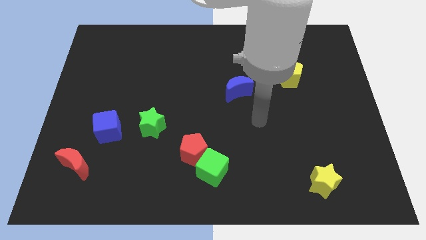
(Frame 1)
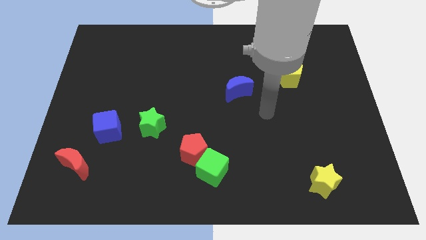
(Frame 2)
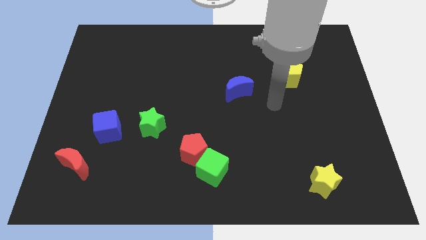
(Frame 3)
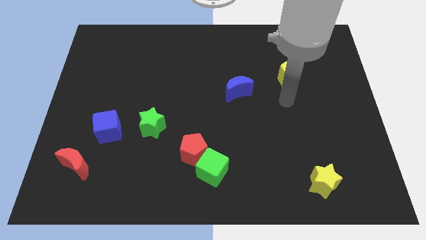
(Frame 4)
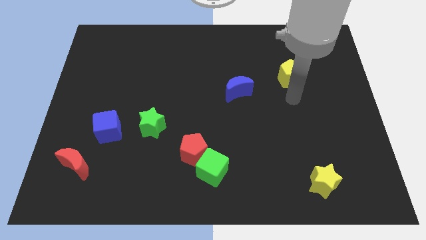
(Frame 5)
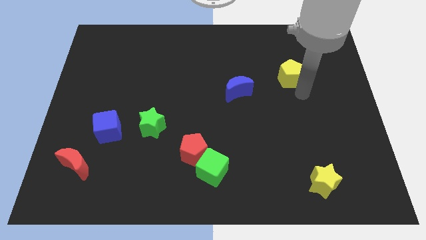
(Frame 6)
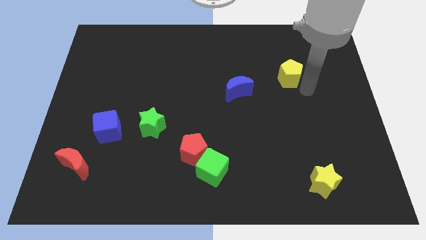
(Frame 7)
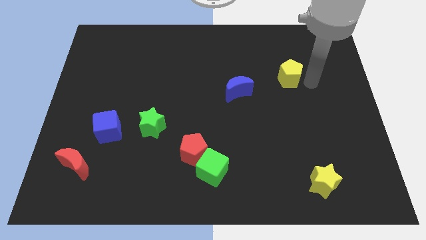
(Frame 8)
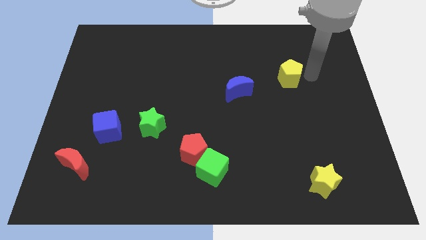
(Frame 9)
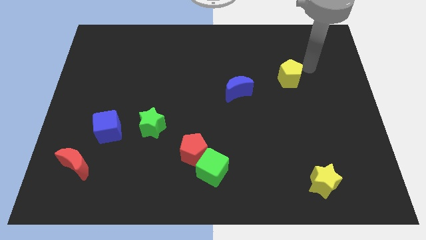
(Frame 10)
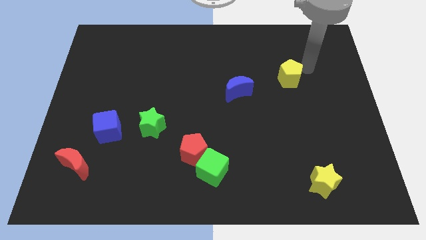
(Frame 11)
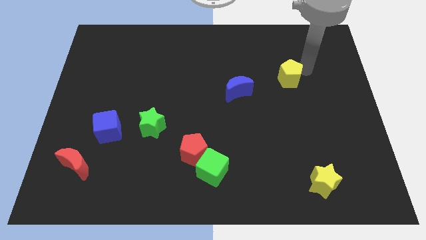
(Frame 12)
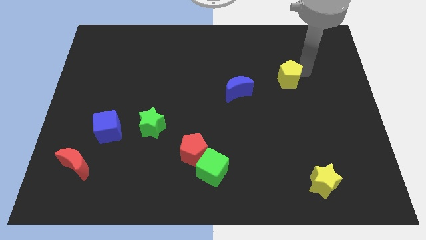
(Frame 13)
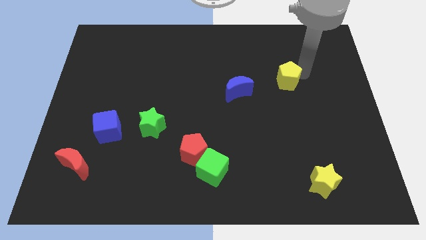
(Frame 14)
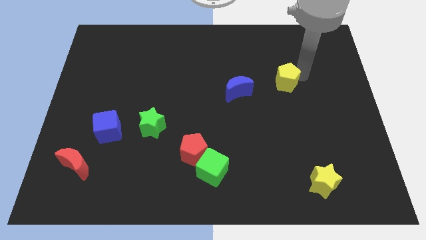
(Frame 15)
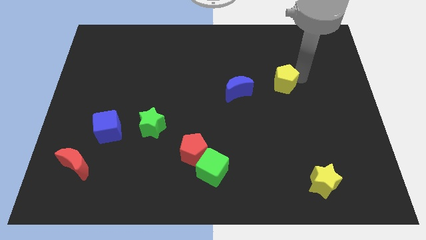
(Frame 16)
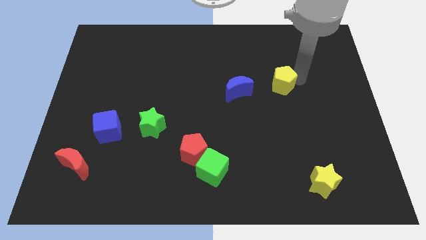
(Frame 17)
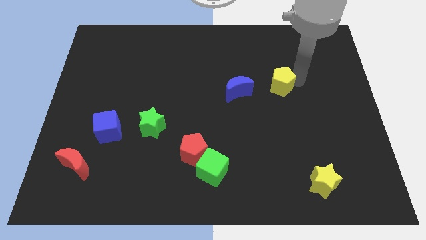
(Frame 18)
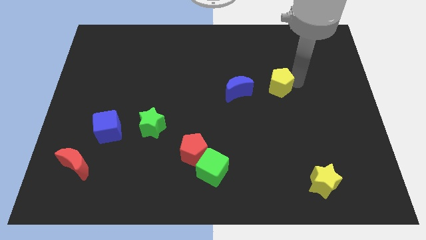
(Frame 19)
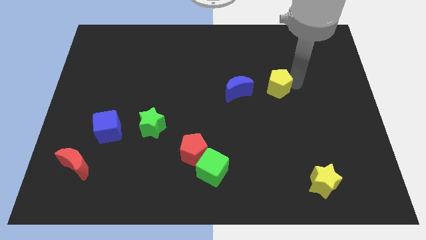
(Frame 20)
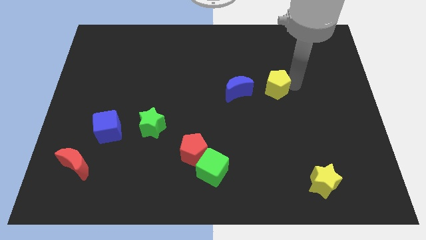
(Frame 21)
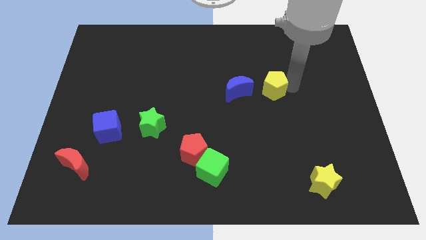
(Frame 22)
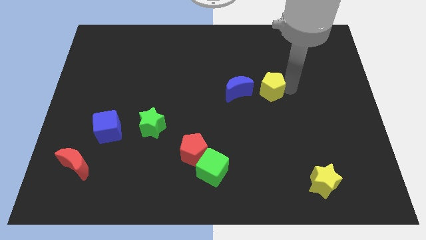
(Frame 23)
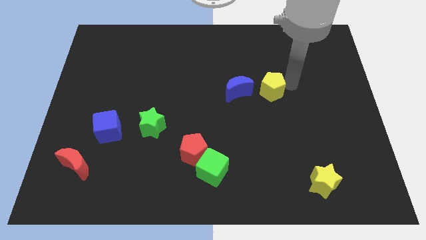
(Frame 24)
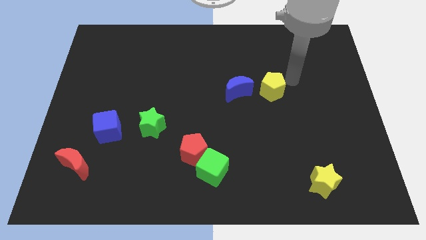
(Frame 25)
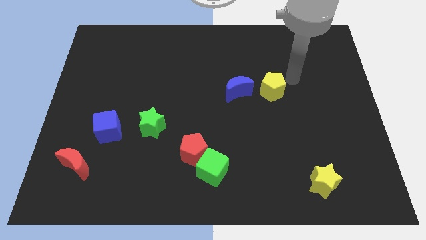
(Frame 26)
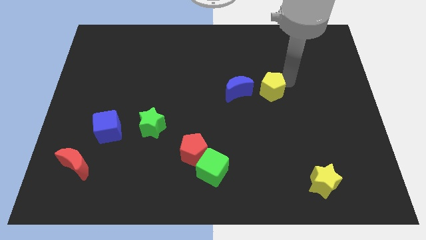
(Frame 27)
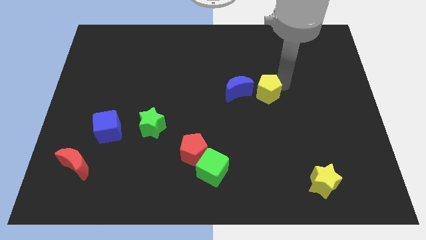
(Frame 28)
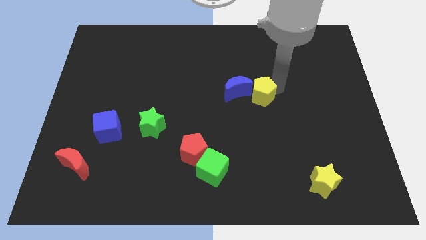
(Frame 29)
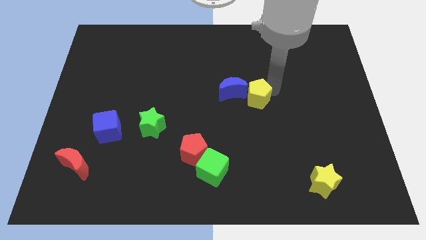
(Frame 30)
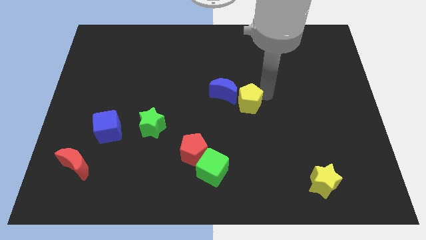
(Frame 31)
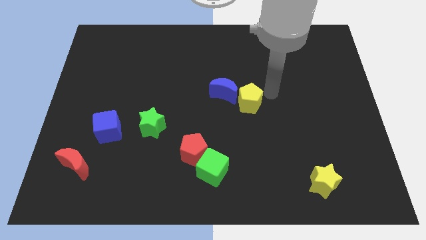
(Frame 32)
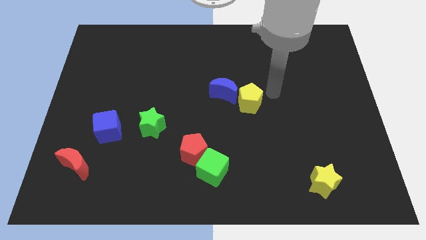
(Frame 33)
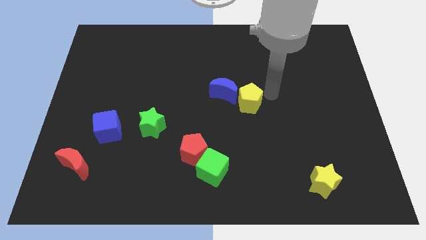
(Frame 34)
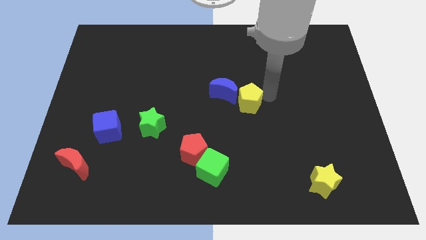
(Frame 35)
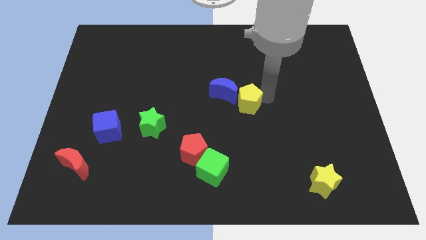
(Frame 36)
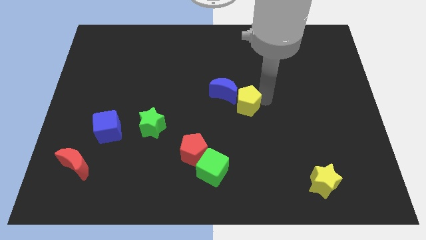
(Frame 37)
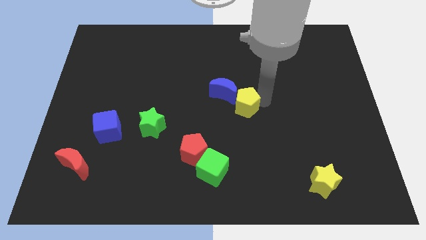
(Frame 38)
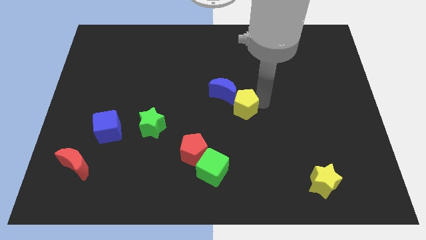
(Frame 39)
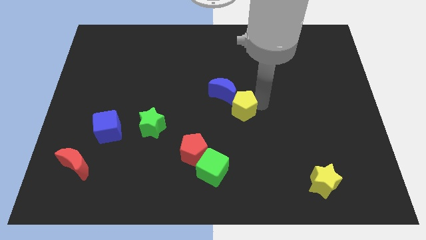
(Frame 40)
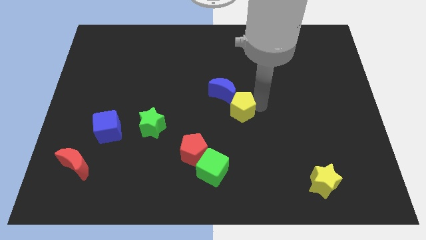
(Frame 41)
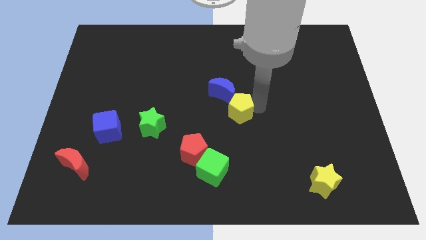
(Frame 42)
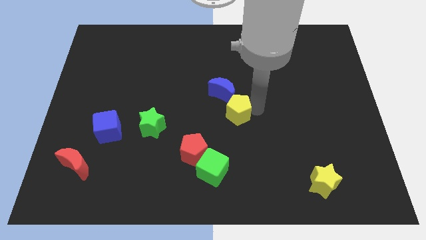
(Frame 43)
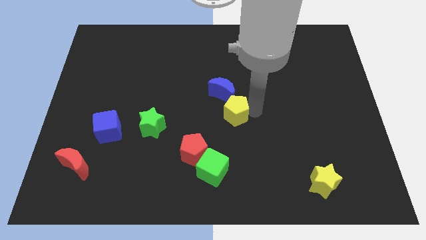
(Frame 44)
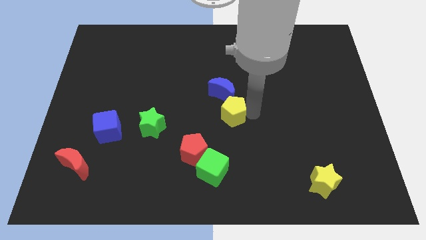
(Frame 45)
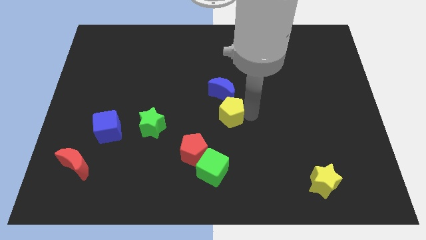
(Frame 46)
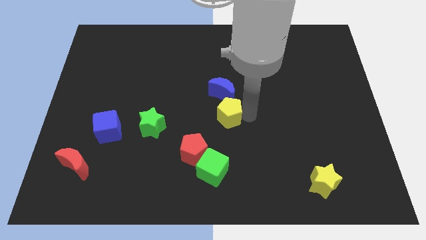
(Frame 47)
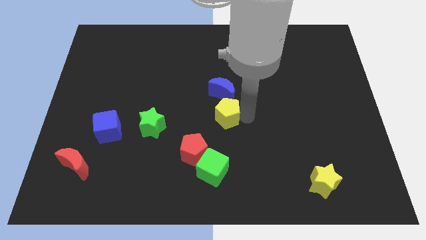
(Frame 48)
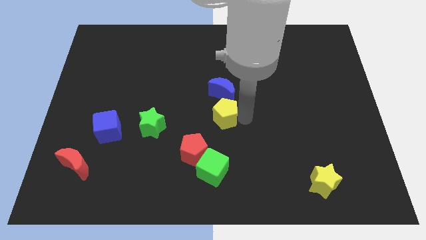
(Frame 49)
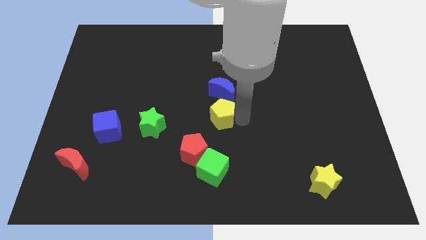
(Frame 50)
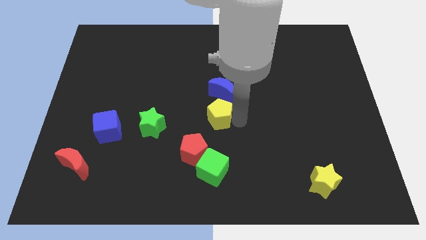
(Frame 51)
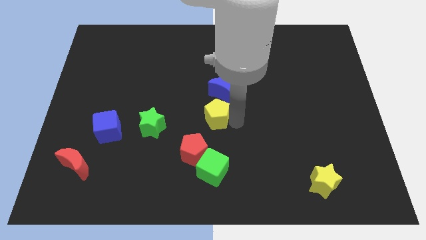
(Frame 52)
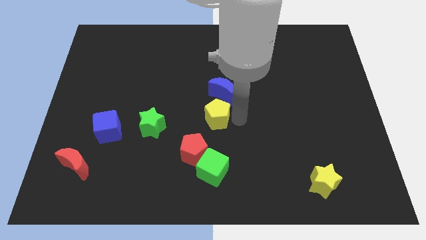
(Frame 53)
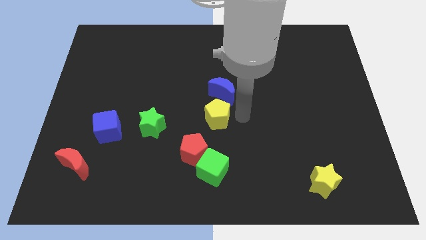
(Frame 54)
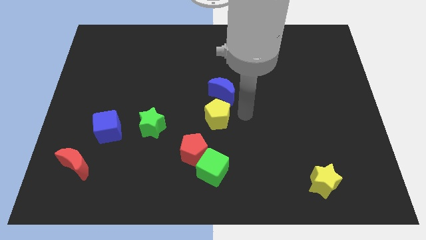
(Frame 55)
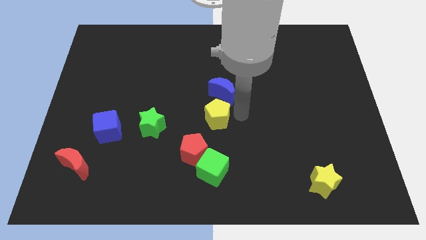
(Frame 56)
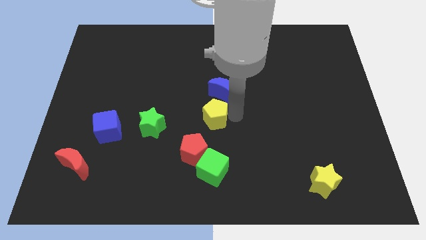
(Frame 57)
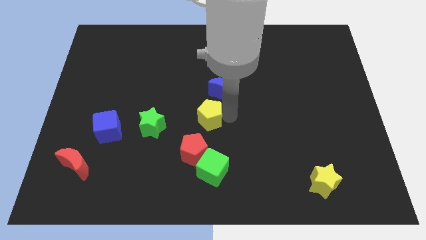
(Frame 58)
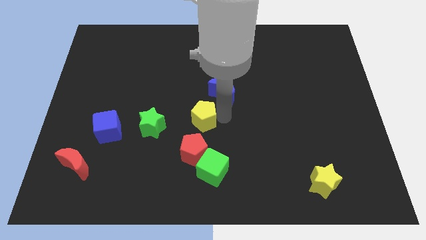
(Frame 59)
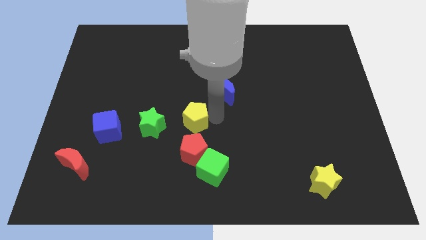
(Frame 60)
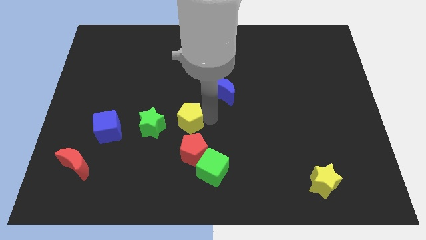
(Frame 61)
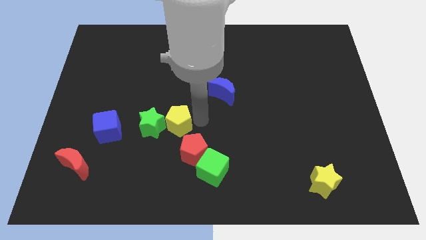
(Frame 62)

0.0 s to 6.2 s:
move the yellow pentagon close to the green star

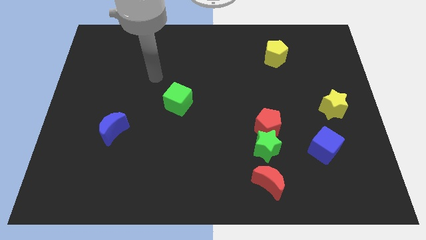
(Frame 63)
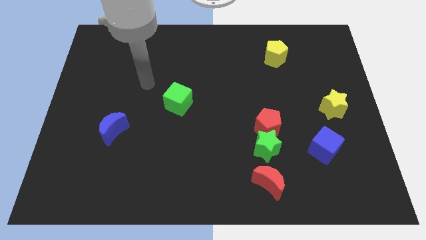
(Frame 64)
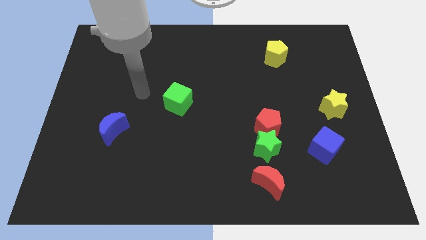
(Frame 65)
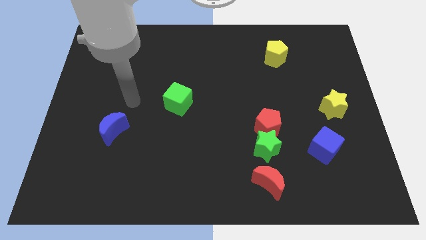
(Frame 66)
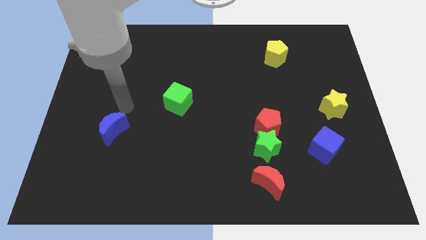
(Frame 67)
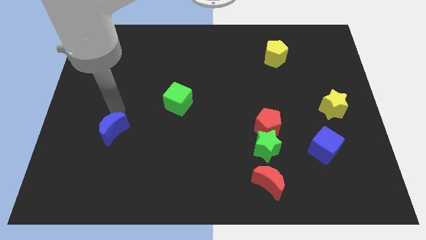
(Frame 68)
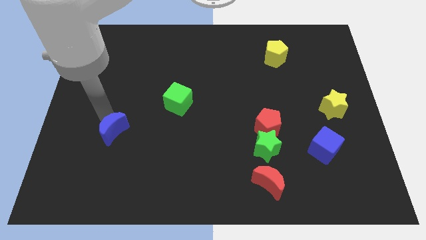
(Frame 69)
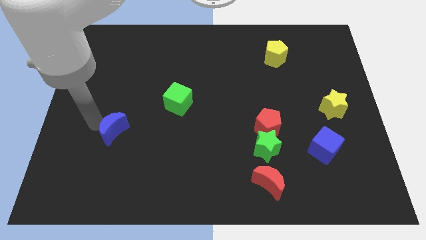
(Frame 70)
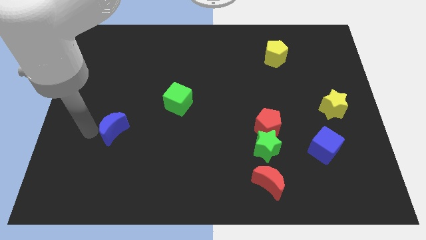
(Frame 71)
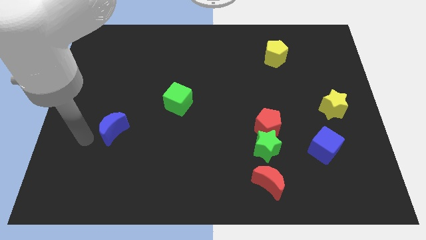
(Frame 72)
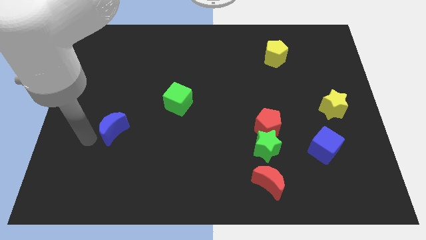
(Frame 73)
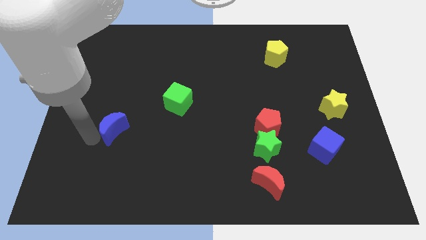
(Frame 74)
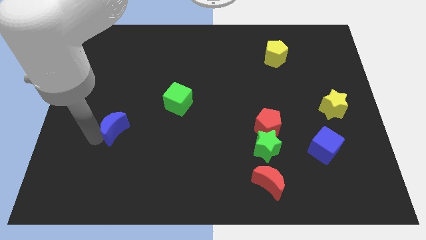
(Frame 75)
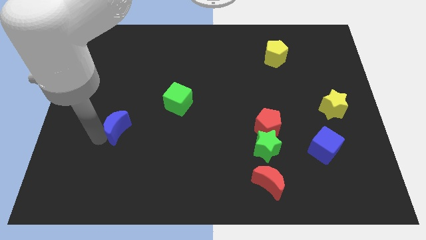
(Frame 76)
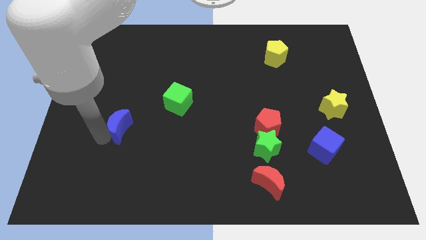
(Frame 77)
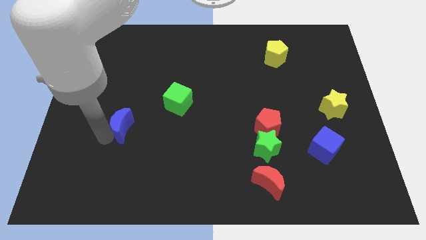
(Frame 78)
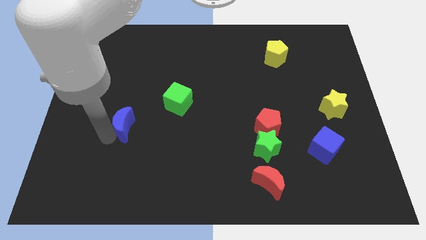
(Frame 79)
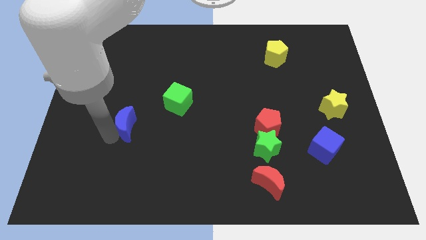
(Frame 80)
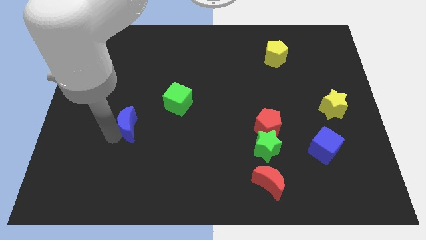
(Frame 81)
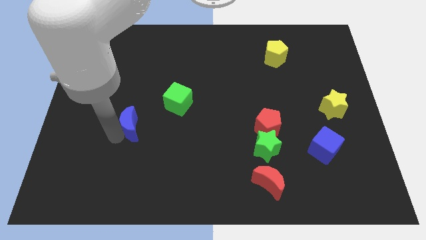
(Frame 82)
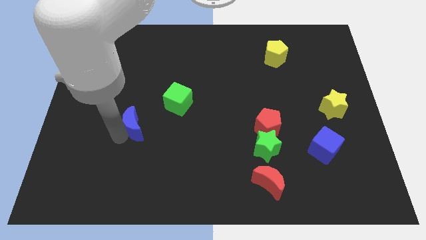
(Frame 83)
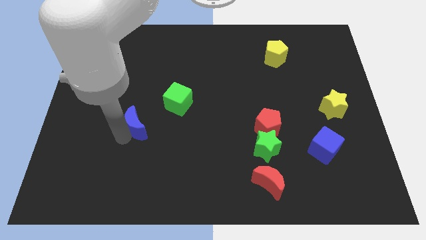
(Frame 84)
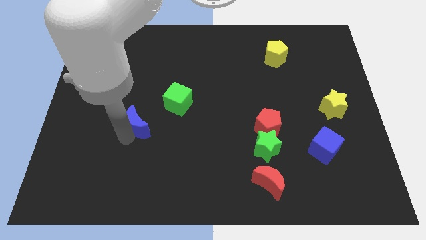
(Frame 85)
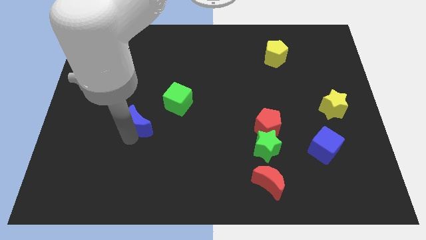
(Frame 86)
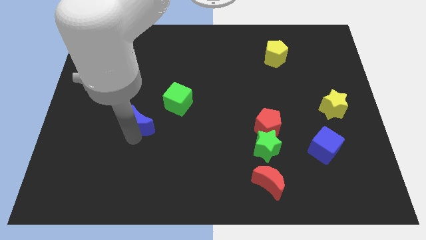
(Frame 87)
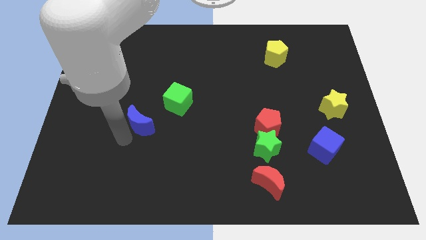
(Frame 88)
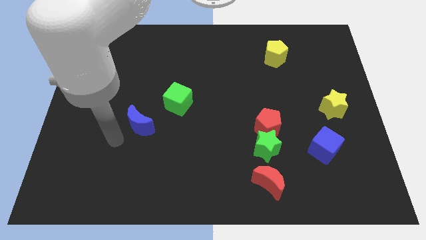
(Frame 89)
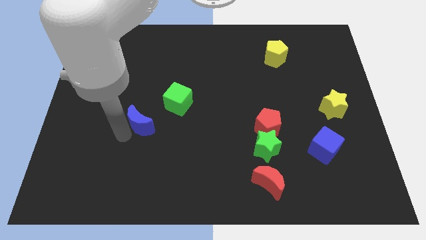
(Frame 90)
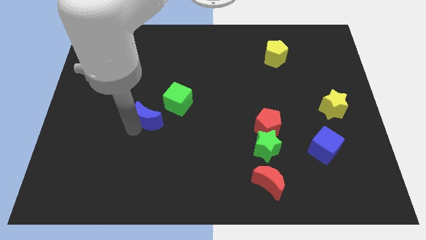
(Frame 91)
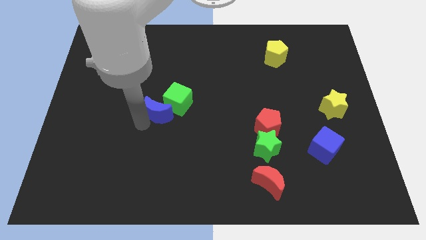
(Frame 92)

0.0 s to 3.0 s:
put the blue moon close to the green cube
